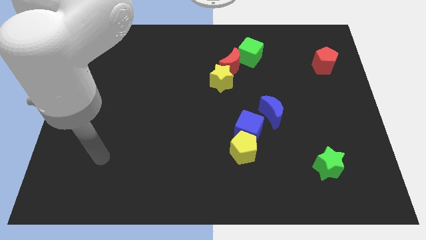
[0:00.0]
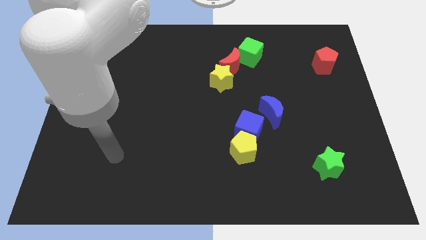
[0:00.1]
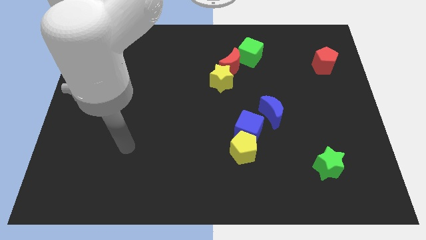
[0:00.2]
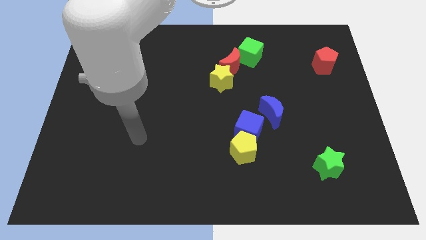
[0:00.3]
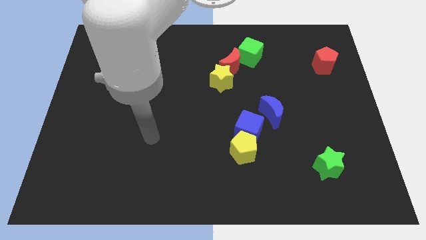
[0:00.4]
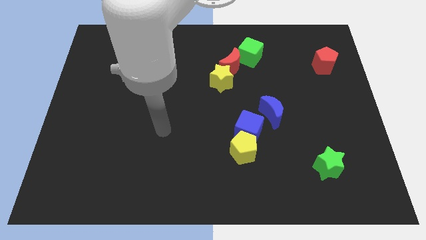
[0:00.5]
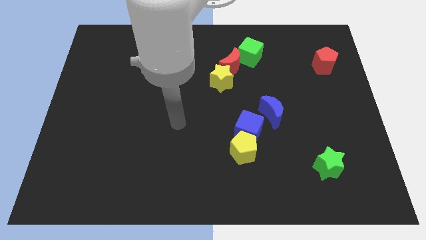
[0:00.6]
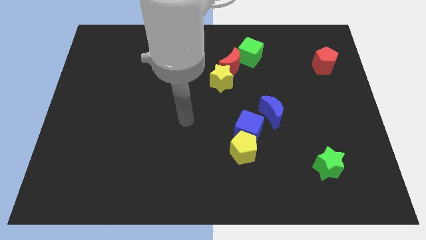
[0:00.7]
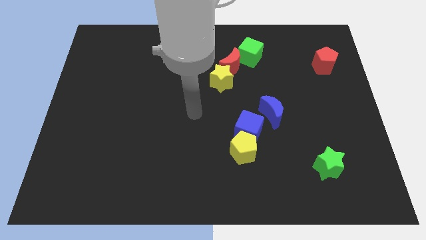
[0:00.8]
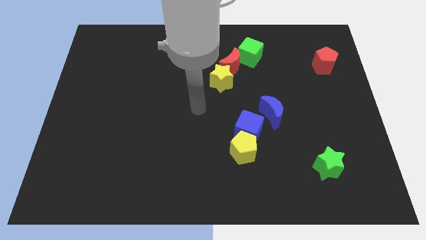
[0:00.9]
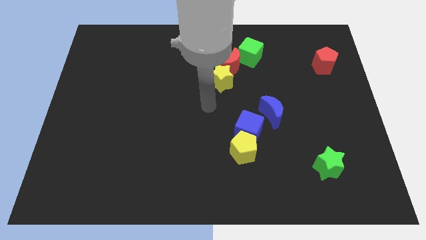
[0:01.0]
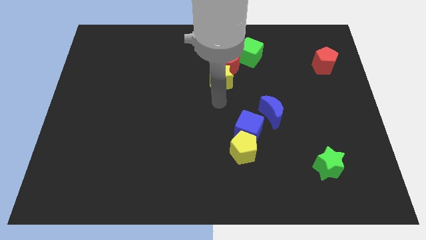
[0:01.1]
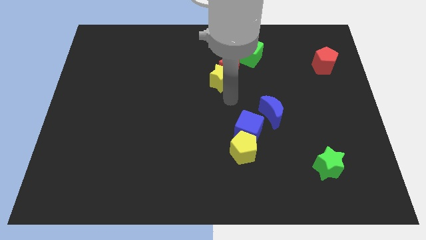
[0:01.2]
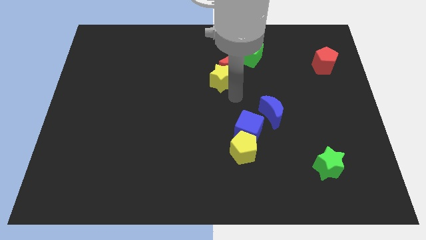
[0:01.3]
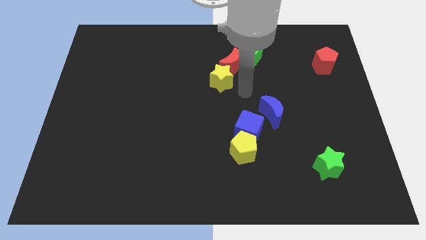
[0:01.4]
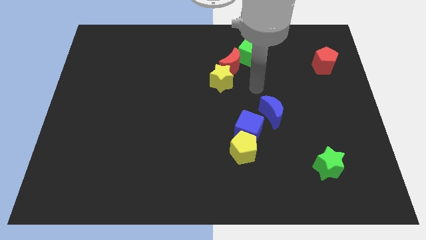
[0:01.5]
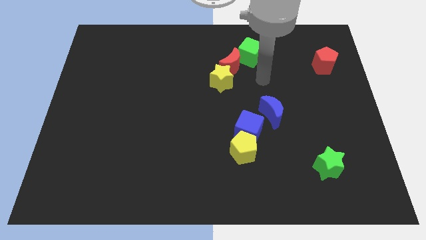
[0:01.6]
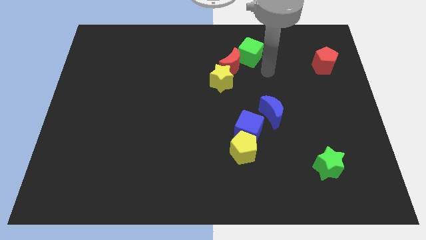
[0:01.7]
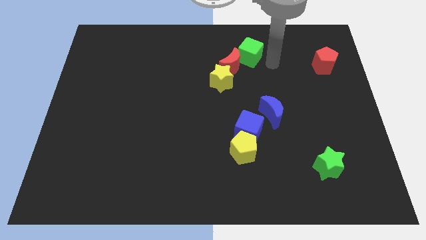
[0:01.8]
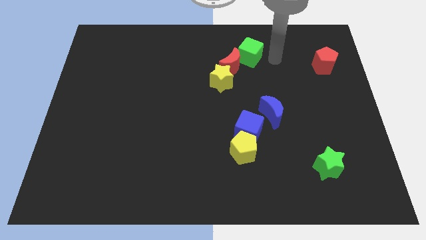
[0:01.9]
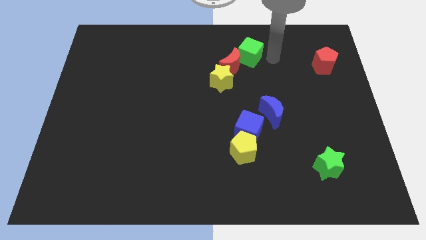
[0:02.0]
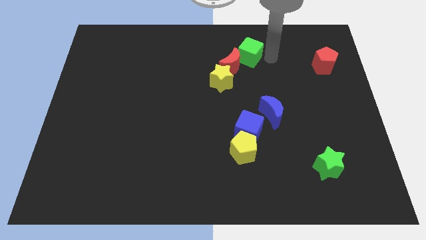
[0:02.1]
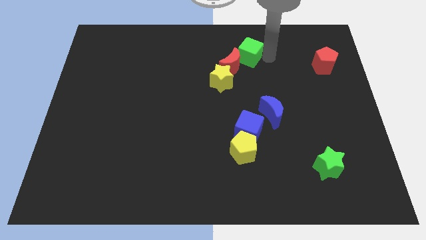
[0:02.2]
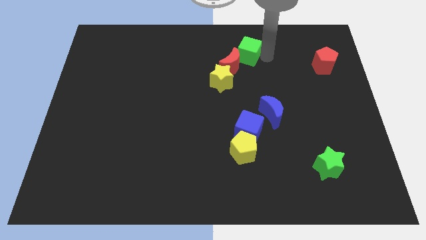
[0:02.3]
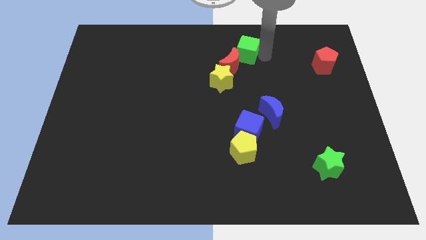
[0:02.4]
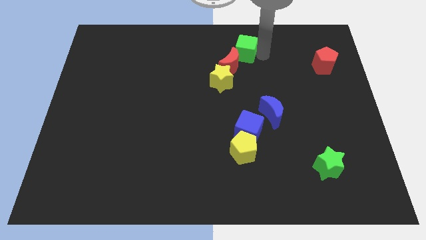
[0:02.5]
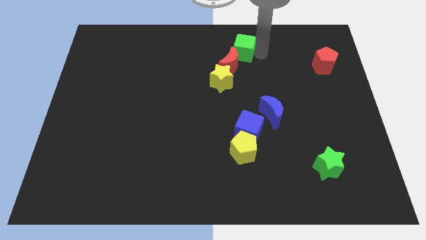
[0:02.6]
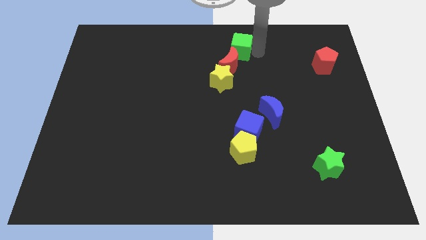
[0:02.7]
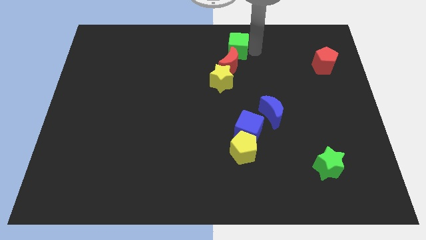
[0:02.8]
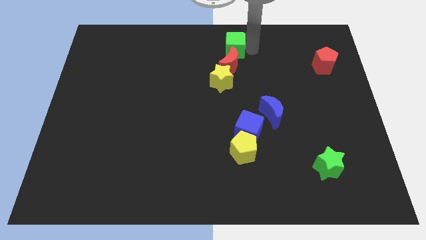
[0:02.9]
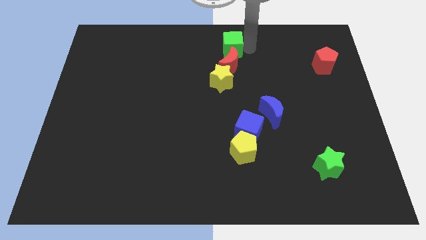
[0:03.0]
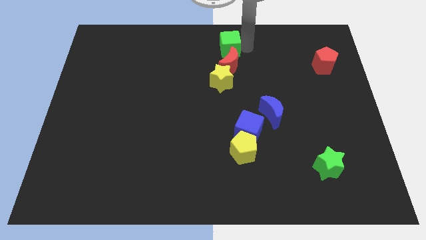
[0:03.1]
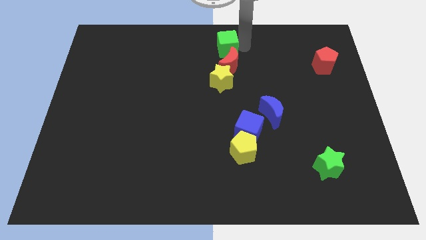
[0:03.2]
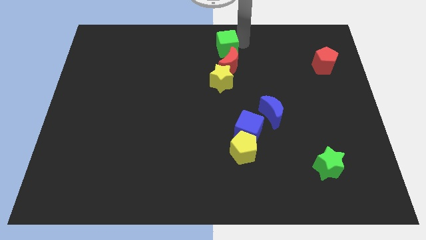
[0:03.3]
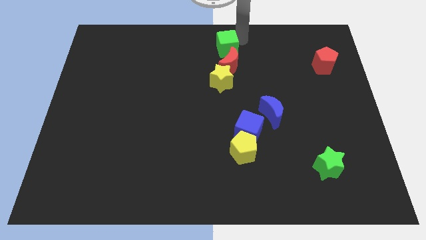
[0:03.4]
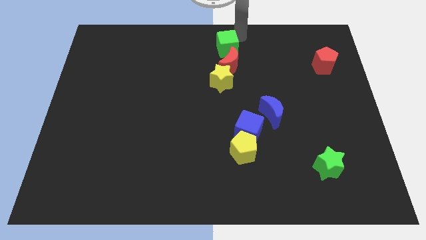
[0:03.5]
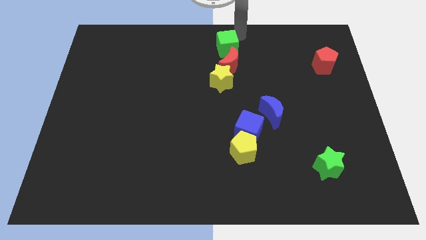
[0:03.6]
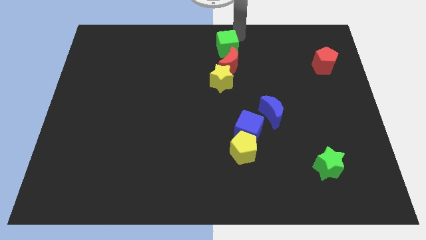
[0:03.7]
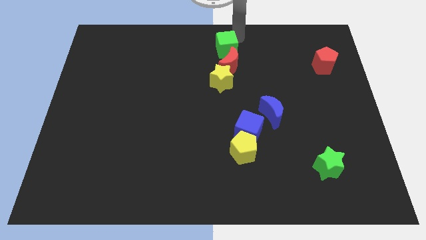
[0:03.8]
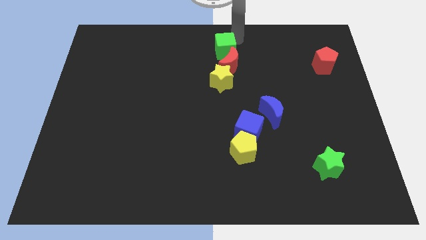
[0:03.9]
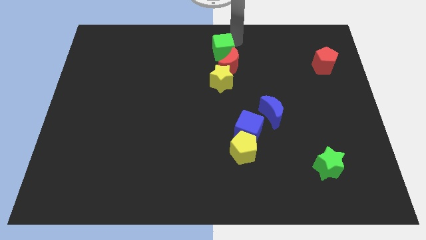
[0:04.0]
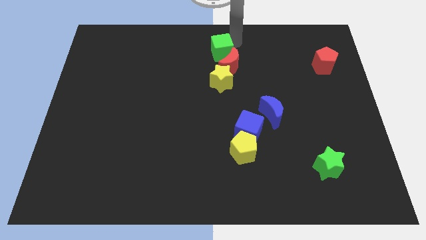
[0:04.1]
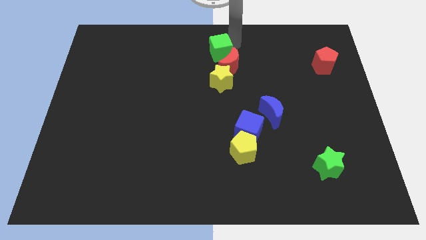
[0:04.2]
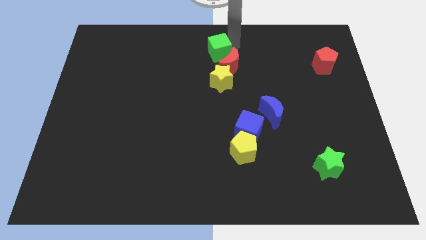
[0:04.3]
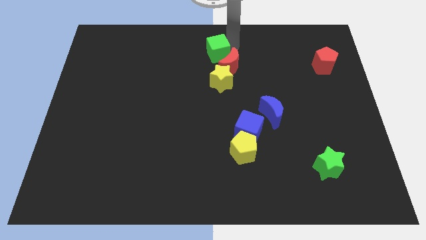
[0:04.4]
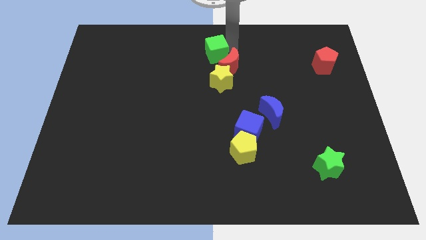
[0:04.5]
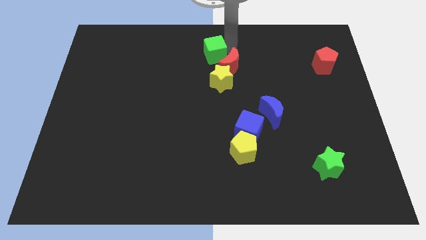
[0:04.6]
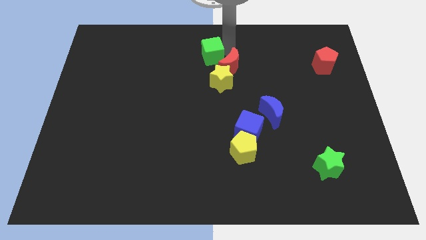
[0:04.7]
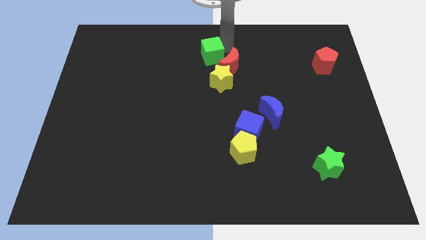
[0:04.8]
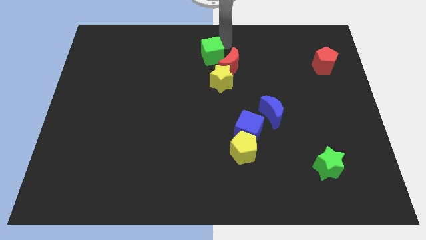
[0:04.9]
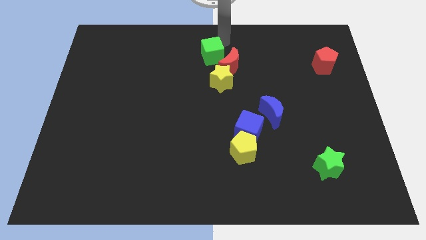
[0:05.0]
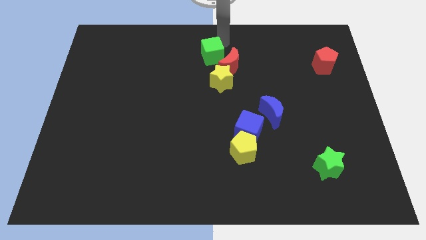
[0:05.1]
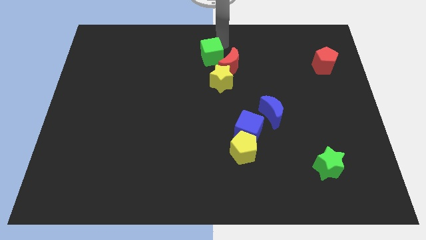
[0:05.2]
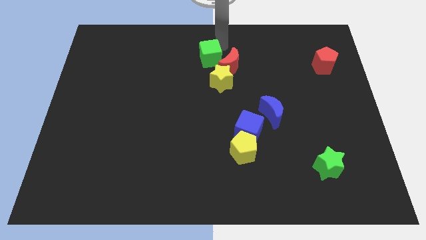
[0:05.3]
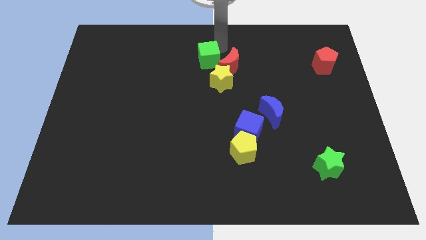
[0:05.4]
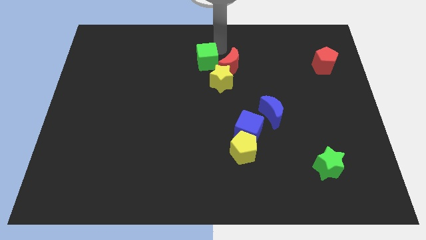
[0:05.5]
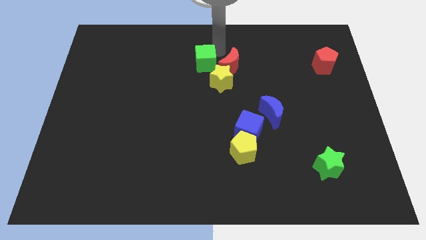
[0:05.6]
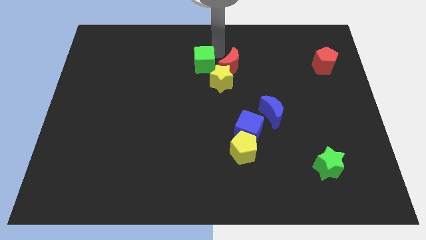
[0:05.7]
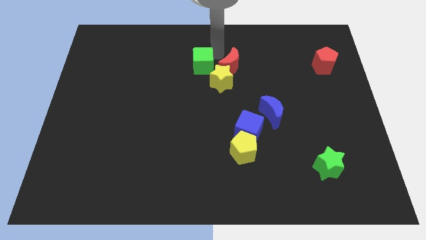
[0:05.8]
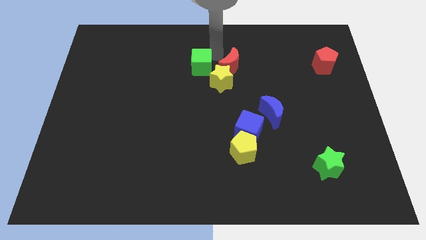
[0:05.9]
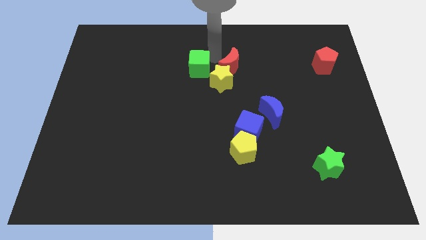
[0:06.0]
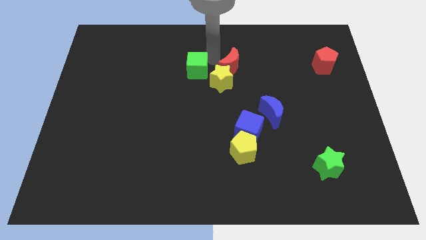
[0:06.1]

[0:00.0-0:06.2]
move the green cube left of the yellow star
